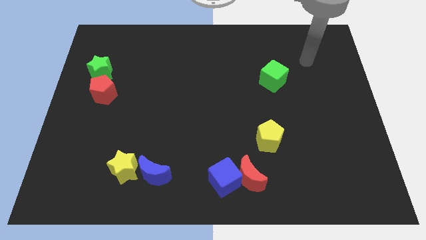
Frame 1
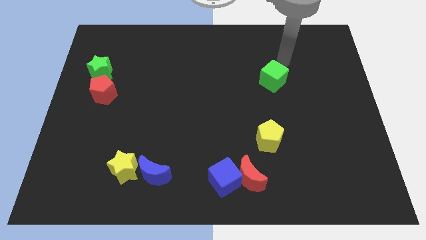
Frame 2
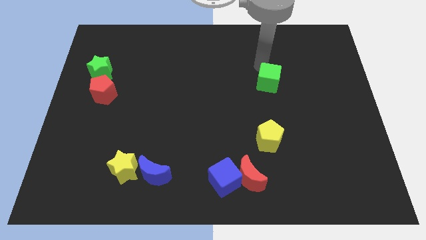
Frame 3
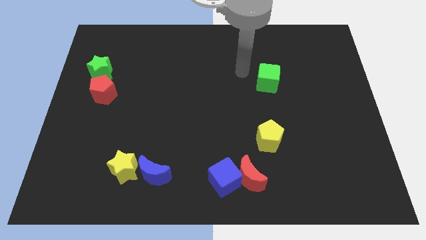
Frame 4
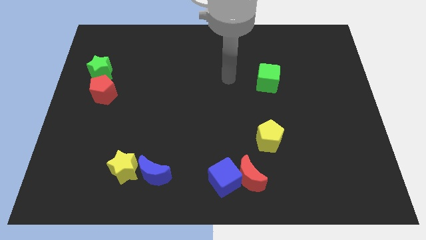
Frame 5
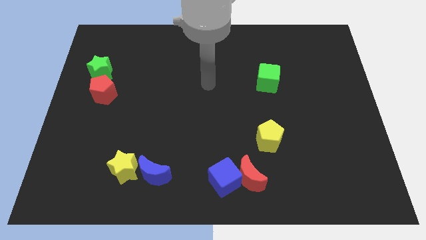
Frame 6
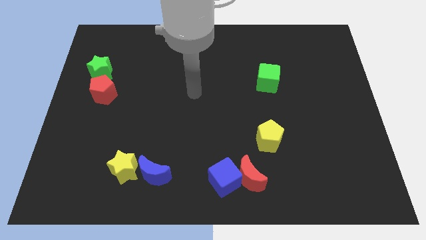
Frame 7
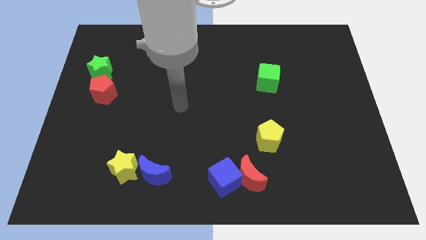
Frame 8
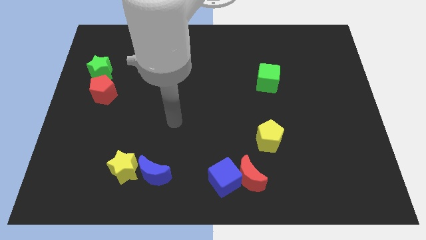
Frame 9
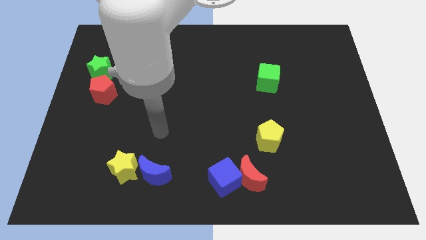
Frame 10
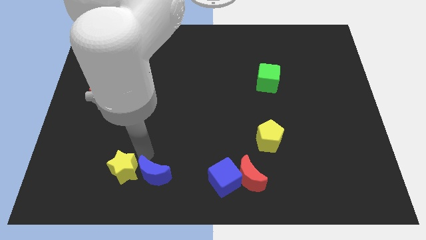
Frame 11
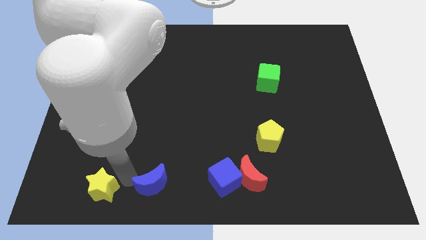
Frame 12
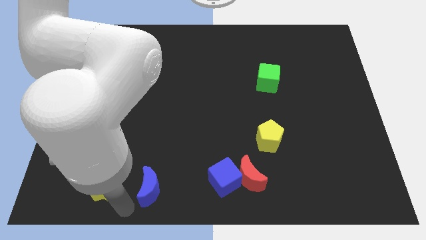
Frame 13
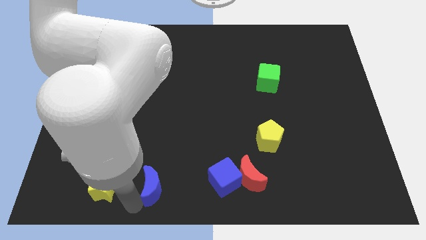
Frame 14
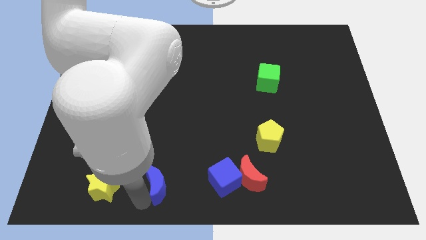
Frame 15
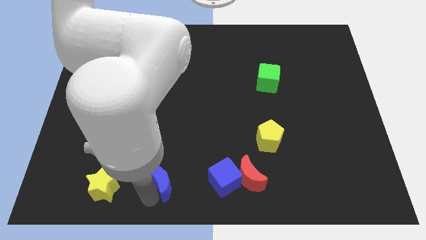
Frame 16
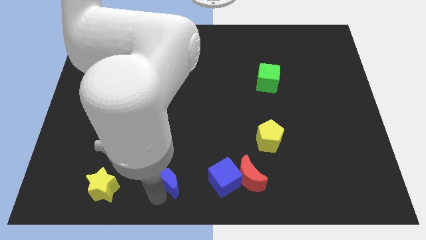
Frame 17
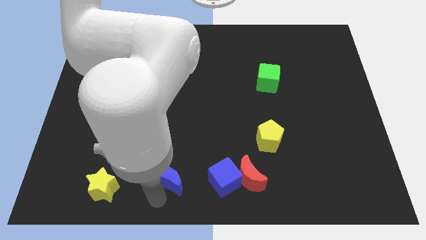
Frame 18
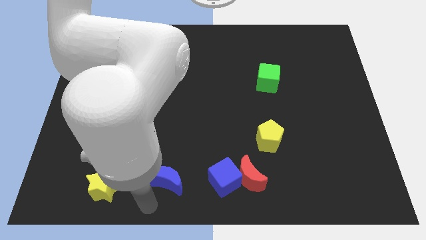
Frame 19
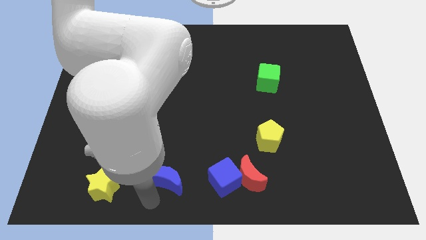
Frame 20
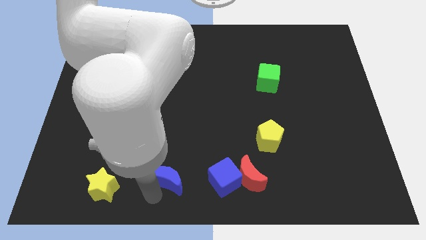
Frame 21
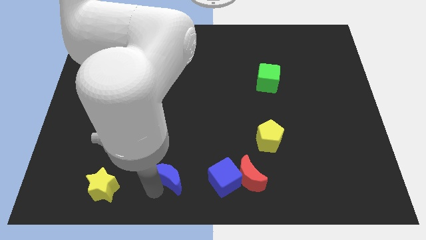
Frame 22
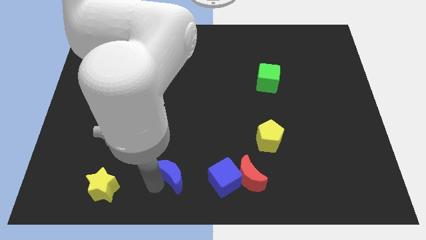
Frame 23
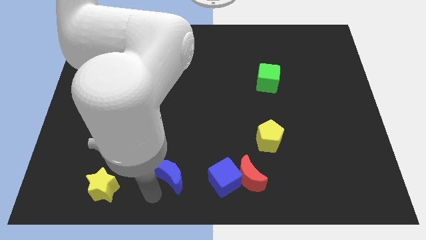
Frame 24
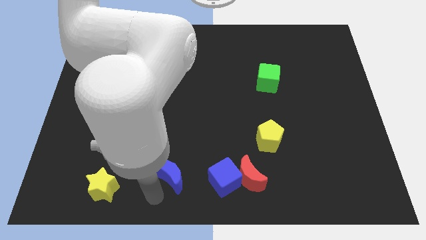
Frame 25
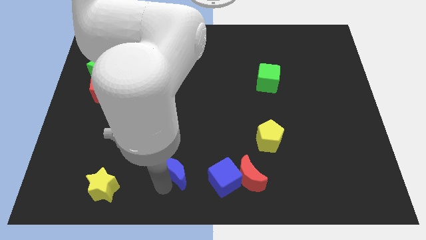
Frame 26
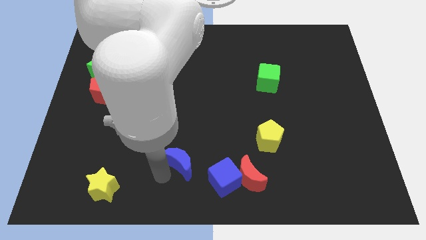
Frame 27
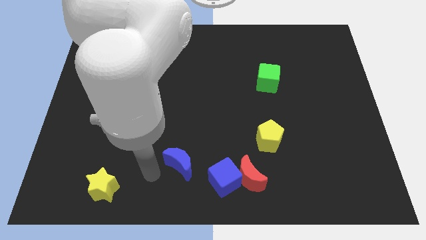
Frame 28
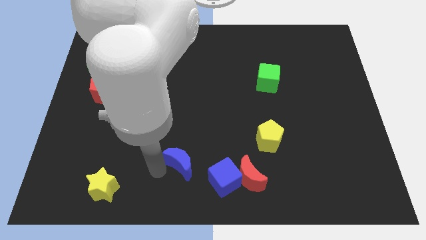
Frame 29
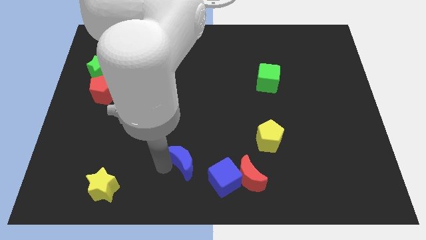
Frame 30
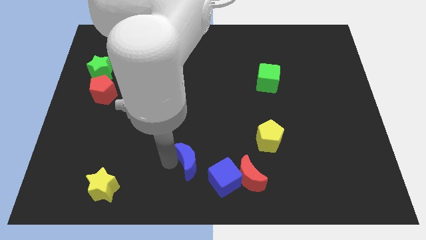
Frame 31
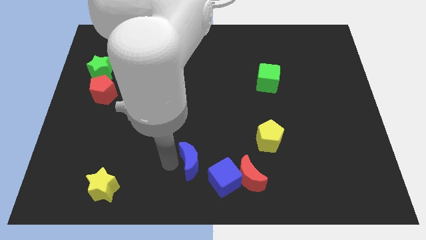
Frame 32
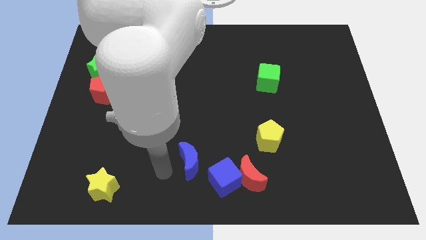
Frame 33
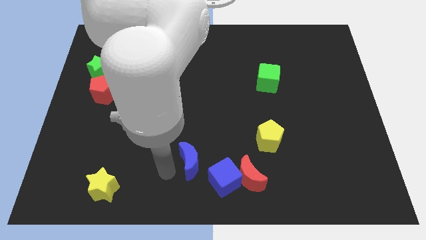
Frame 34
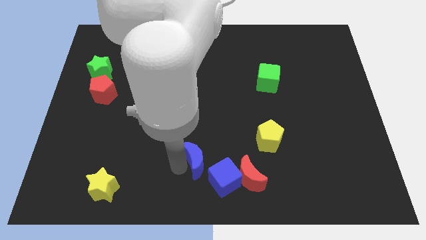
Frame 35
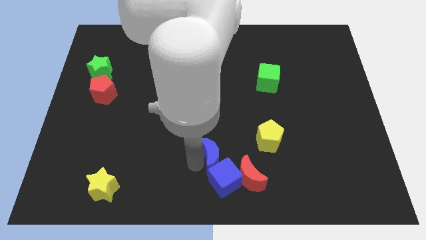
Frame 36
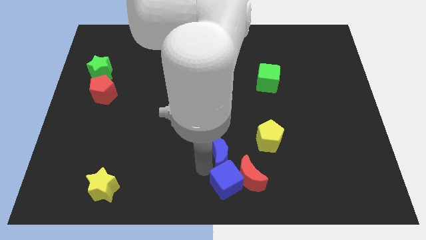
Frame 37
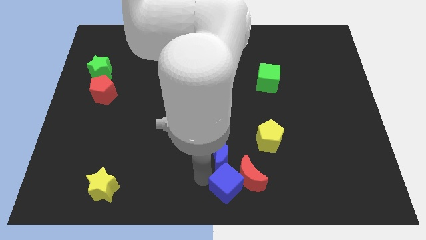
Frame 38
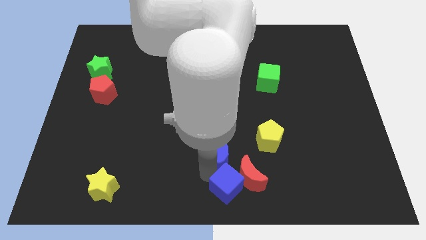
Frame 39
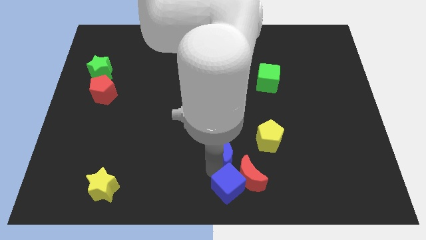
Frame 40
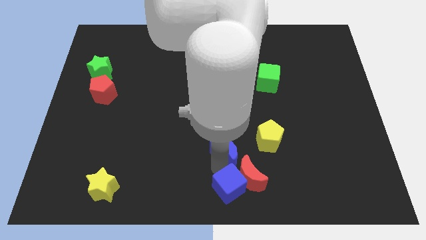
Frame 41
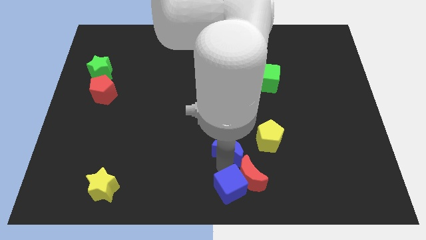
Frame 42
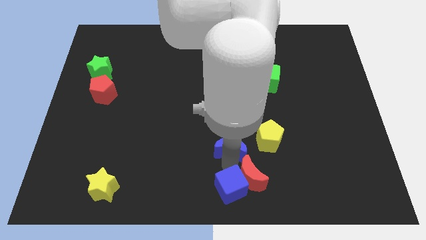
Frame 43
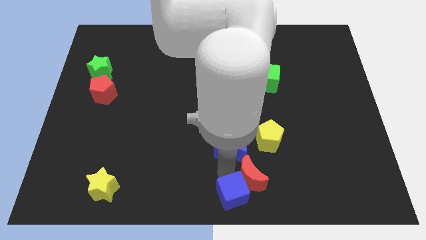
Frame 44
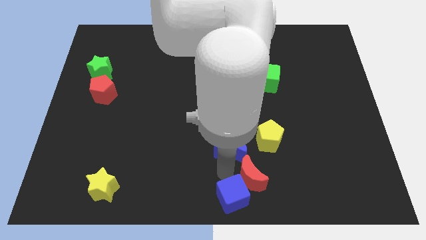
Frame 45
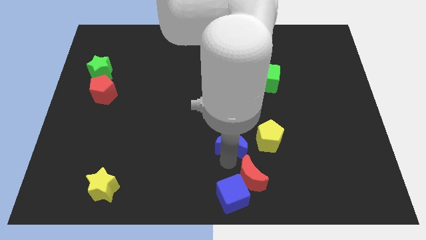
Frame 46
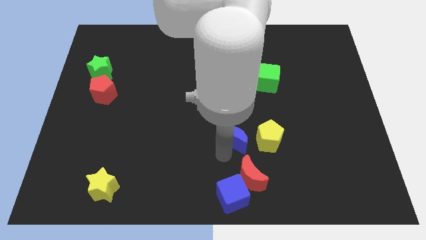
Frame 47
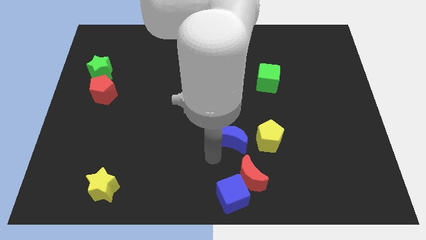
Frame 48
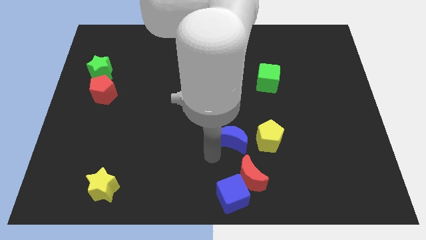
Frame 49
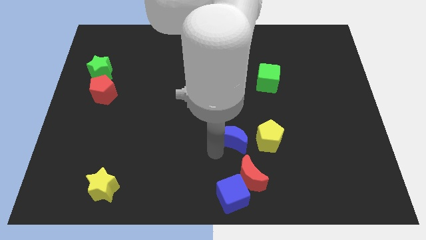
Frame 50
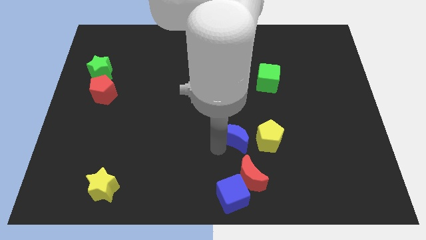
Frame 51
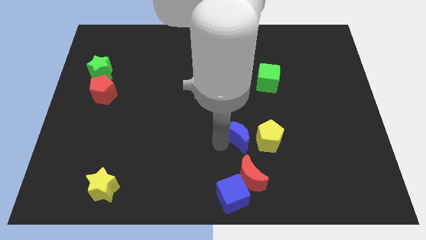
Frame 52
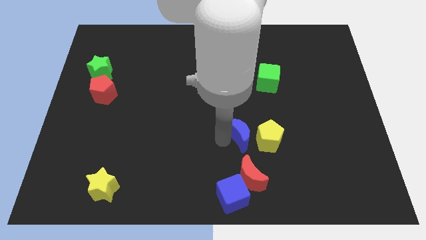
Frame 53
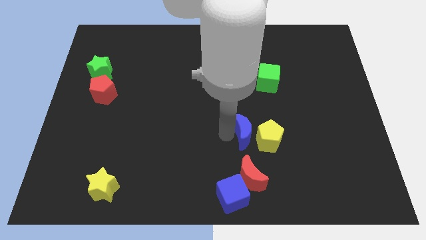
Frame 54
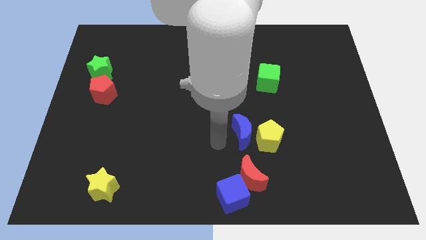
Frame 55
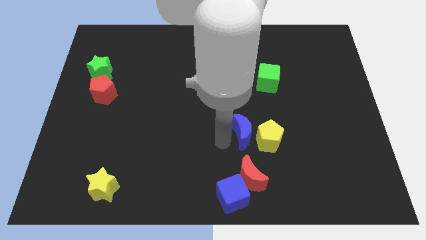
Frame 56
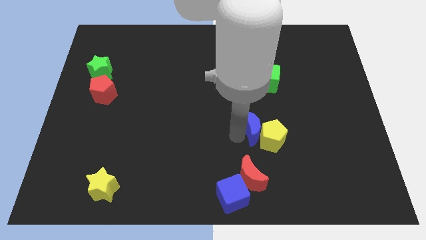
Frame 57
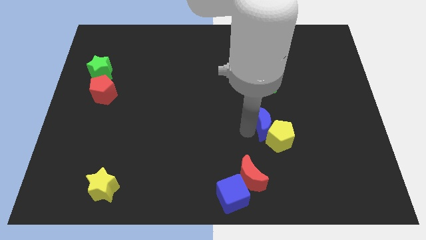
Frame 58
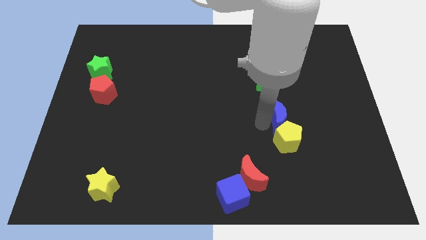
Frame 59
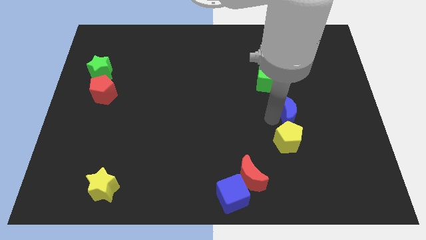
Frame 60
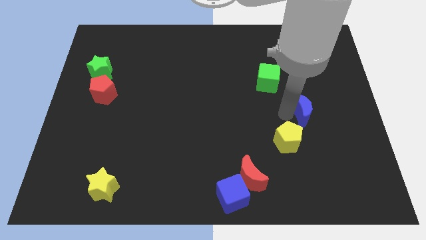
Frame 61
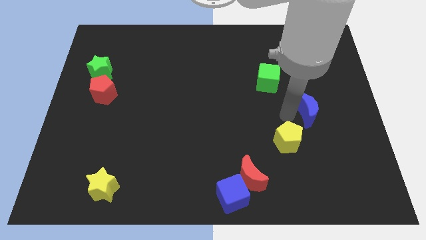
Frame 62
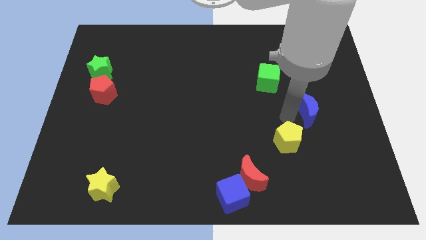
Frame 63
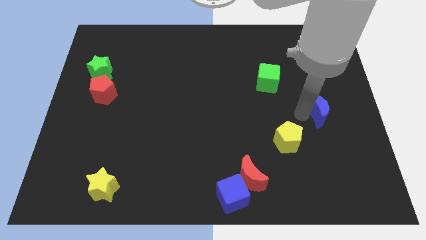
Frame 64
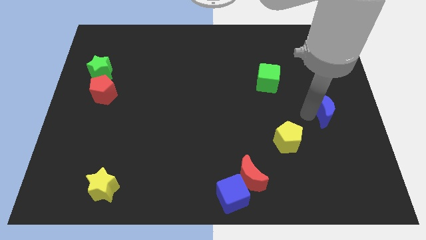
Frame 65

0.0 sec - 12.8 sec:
slide the blue moon to the right side

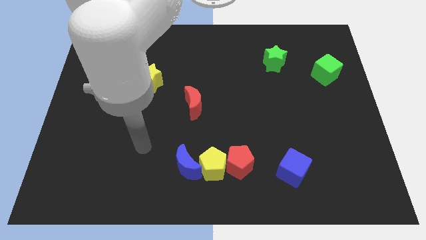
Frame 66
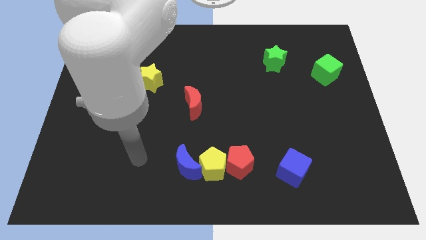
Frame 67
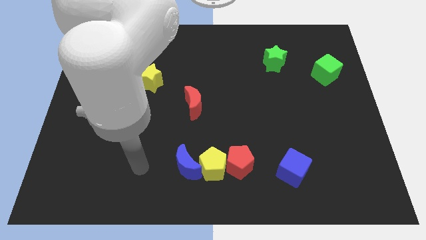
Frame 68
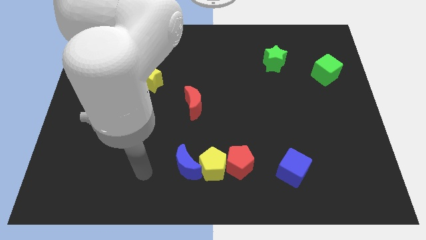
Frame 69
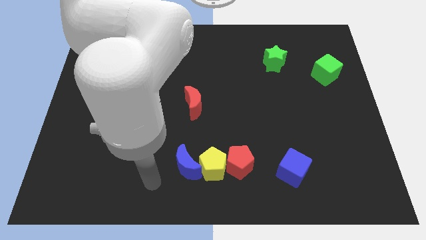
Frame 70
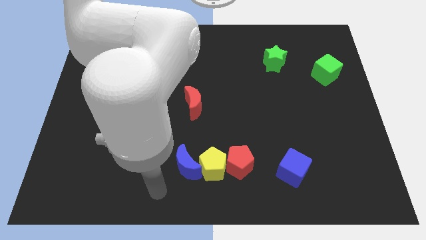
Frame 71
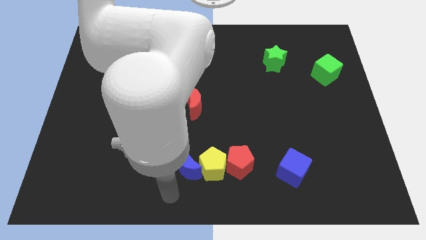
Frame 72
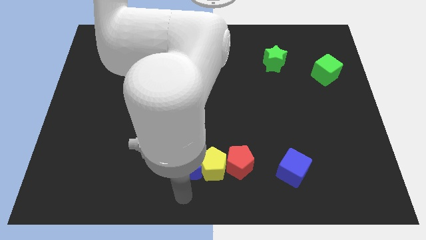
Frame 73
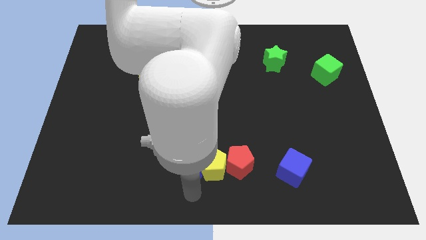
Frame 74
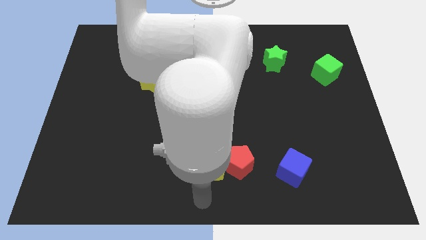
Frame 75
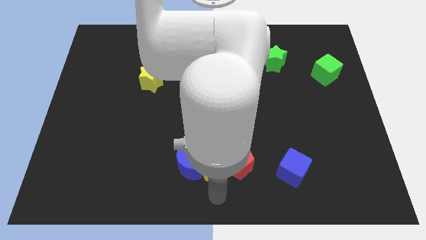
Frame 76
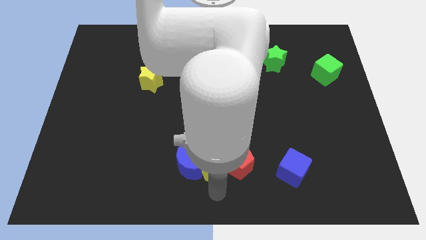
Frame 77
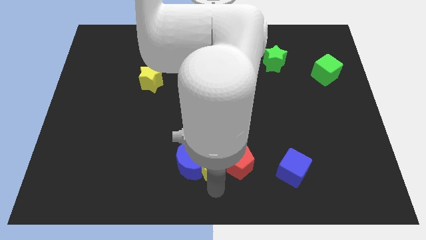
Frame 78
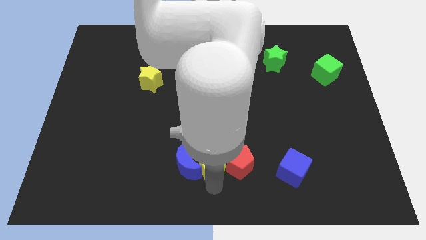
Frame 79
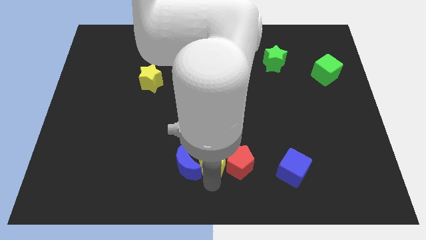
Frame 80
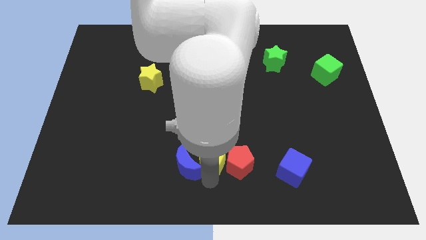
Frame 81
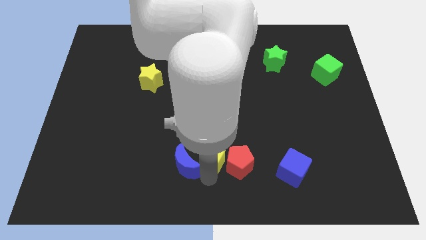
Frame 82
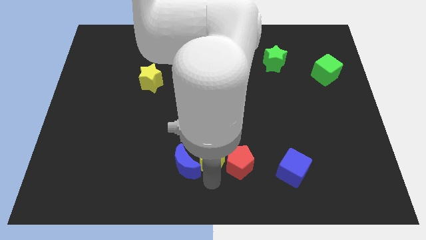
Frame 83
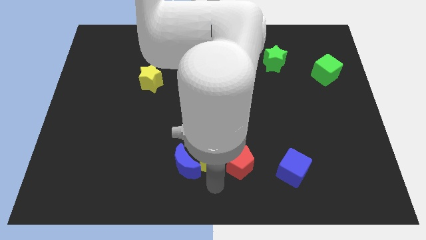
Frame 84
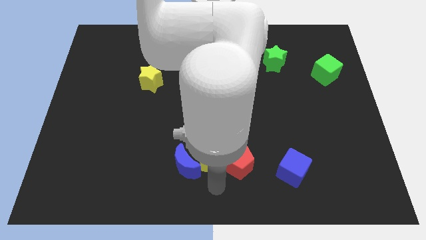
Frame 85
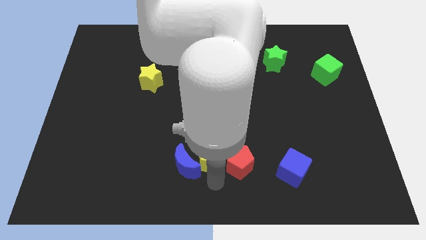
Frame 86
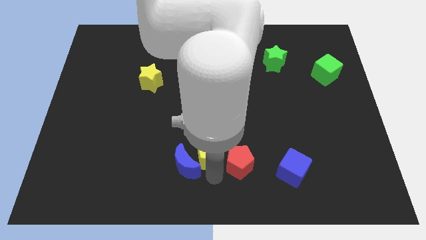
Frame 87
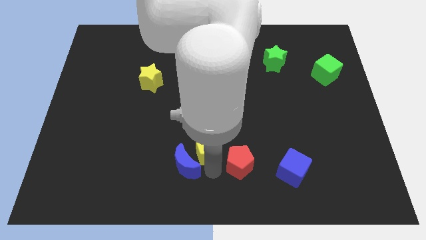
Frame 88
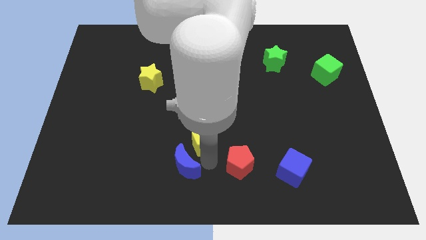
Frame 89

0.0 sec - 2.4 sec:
push the yellow pentagon to the center
